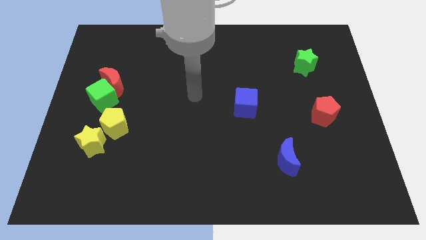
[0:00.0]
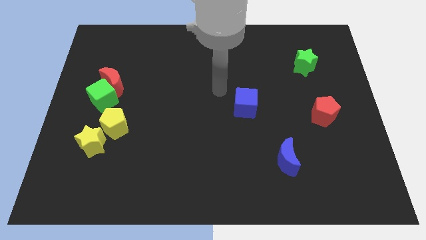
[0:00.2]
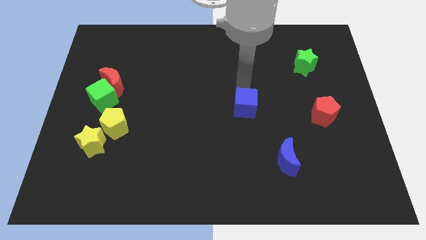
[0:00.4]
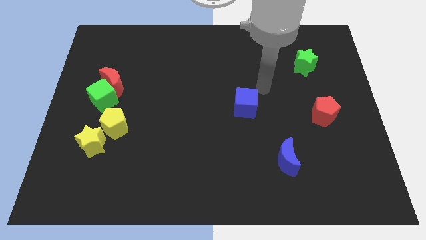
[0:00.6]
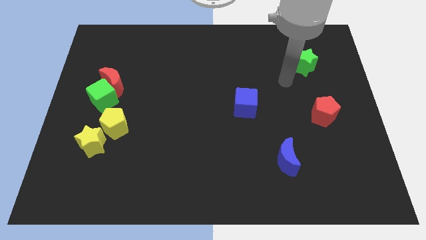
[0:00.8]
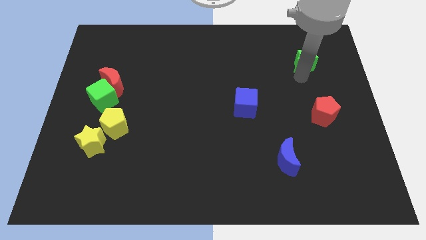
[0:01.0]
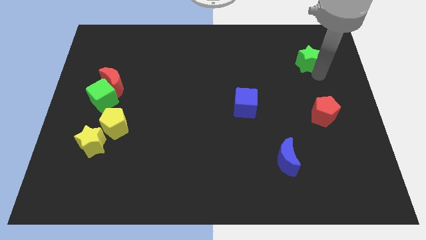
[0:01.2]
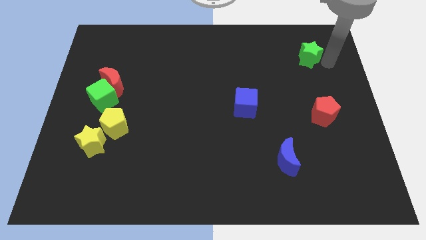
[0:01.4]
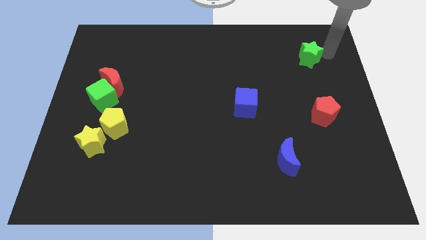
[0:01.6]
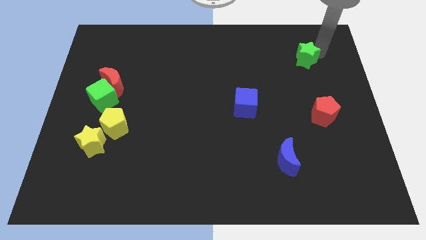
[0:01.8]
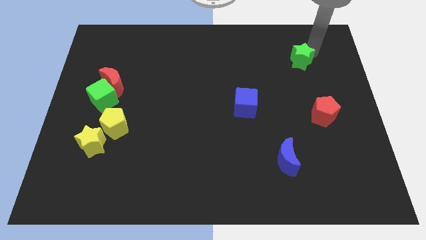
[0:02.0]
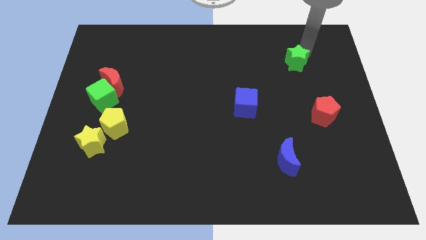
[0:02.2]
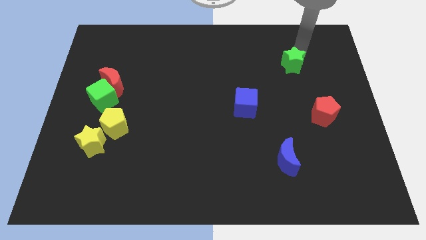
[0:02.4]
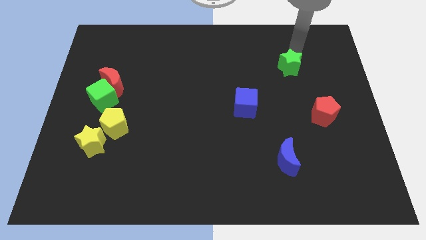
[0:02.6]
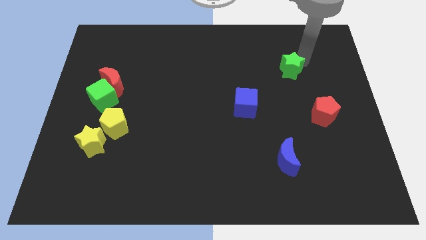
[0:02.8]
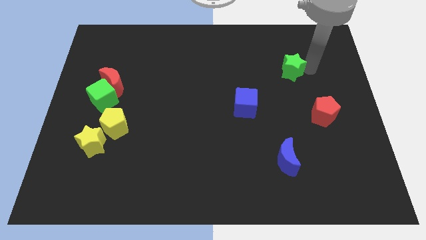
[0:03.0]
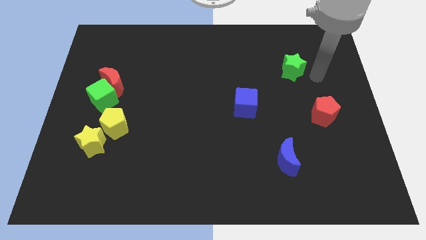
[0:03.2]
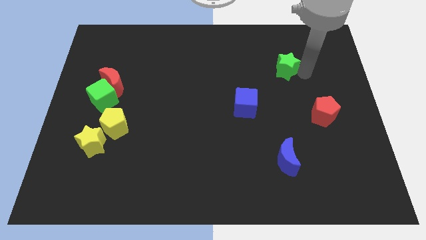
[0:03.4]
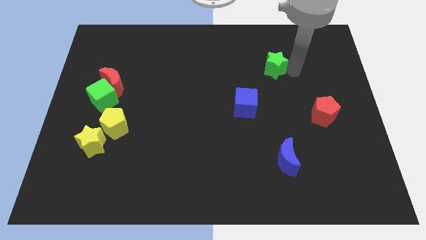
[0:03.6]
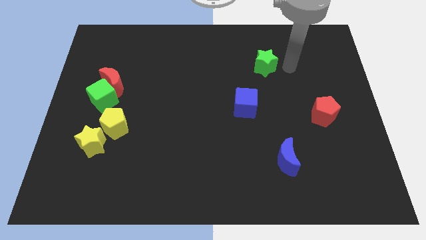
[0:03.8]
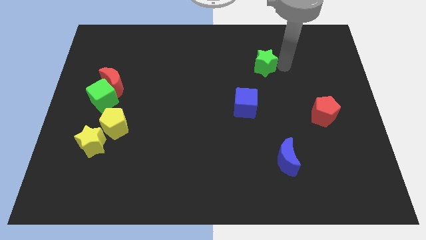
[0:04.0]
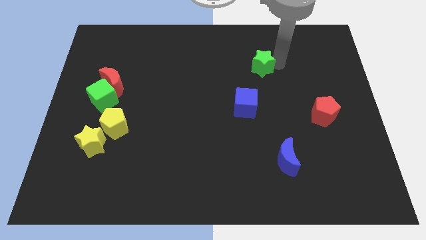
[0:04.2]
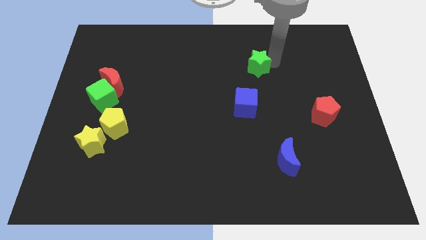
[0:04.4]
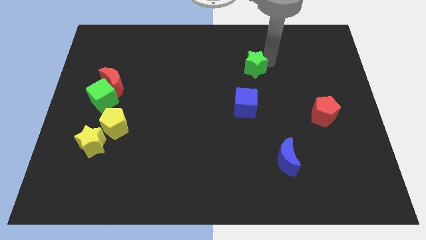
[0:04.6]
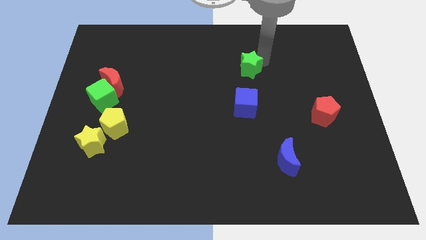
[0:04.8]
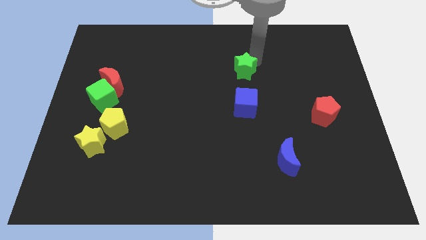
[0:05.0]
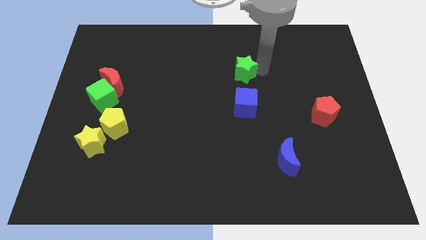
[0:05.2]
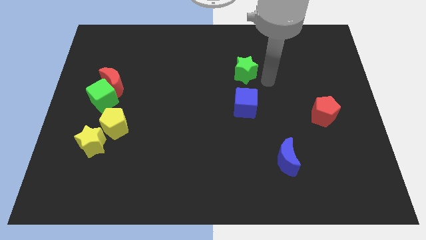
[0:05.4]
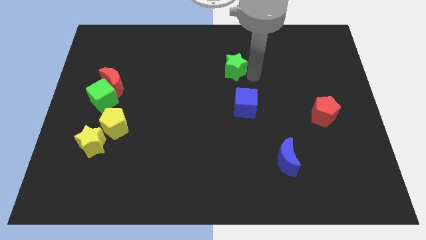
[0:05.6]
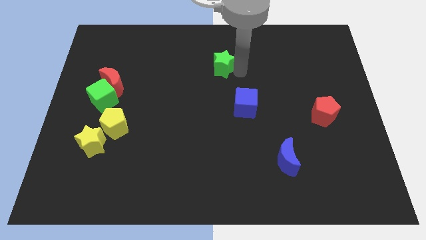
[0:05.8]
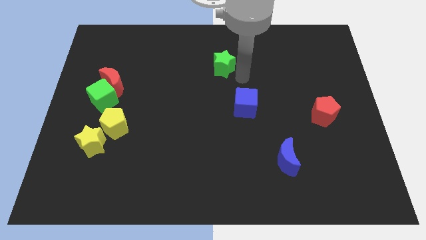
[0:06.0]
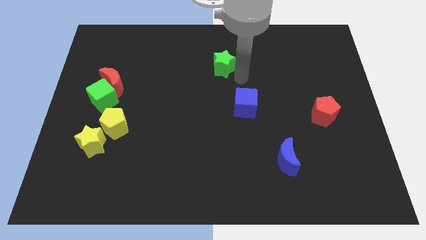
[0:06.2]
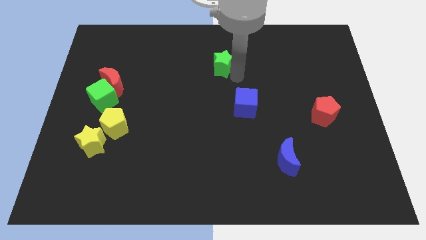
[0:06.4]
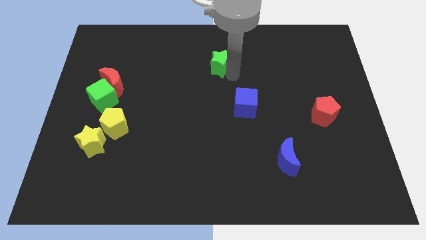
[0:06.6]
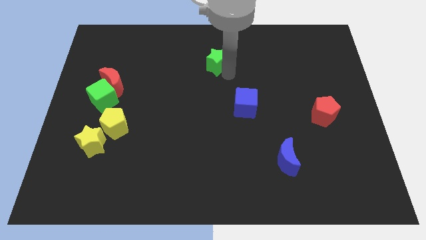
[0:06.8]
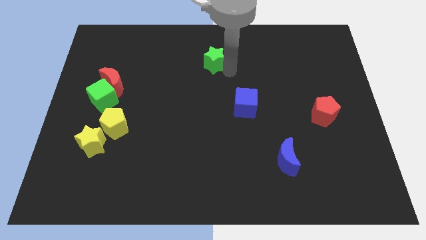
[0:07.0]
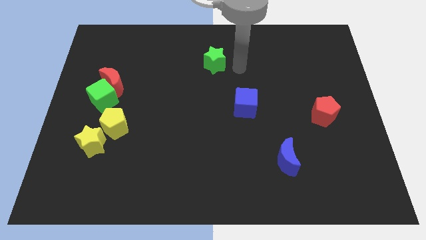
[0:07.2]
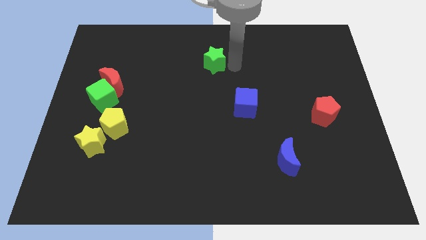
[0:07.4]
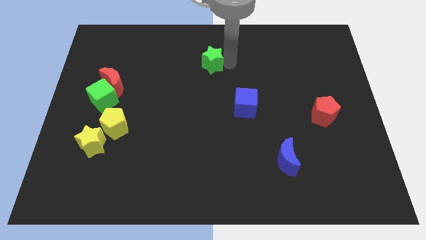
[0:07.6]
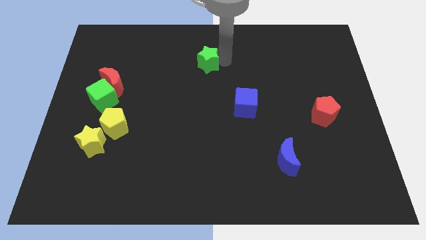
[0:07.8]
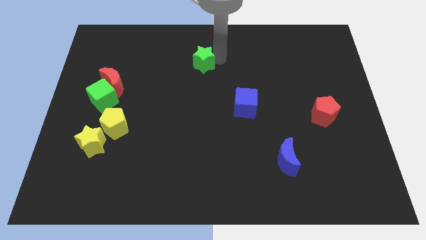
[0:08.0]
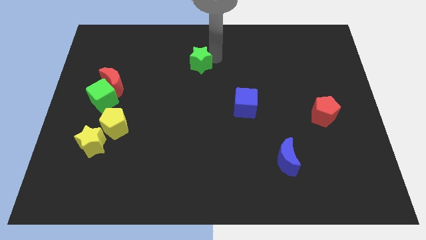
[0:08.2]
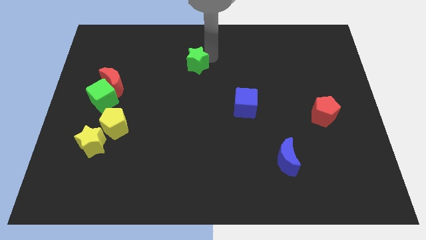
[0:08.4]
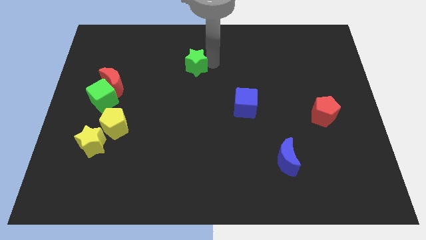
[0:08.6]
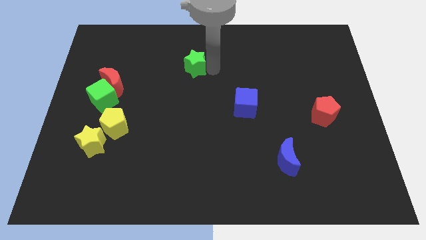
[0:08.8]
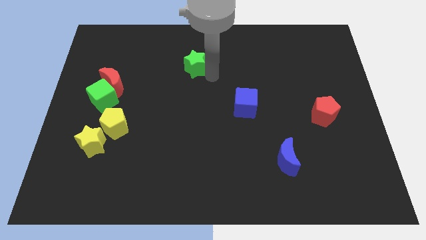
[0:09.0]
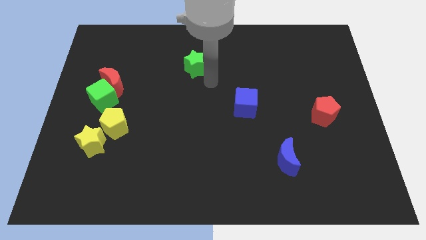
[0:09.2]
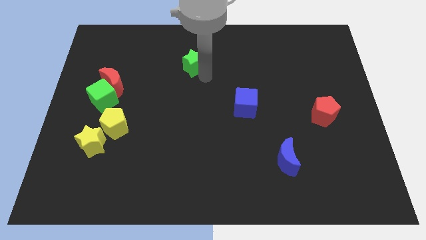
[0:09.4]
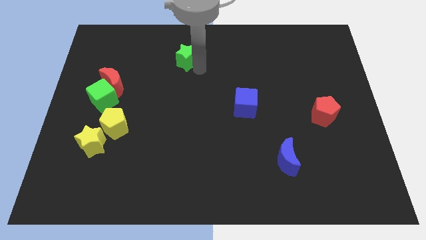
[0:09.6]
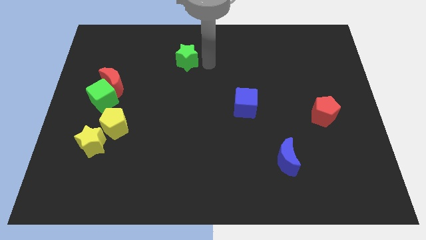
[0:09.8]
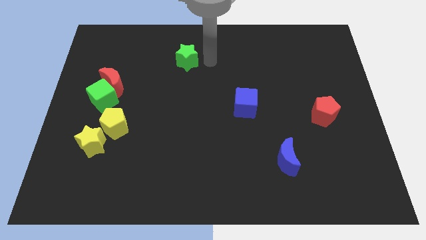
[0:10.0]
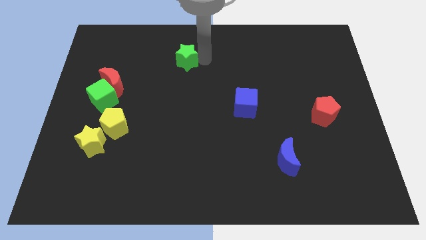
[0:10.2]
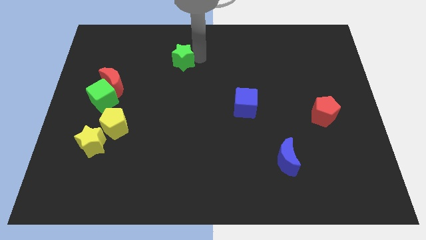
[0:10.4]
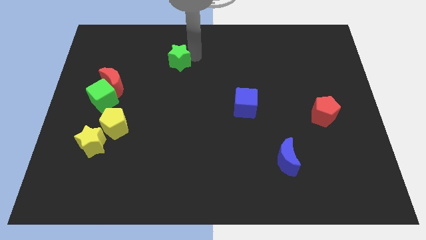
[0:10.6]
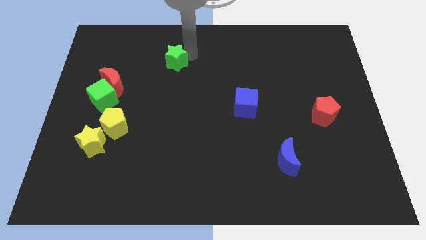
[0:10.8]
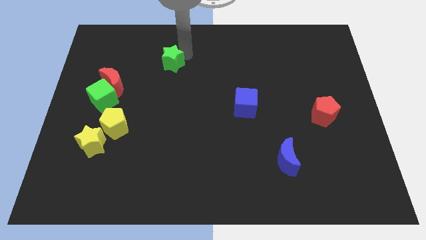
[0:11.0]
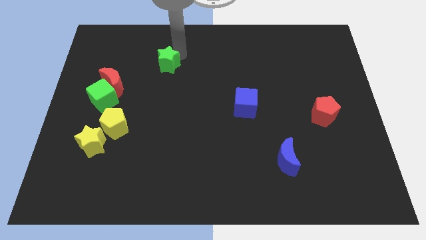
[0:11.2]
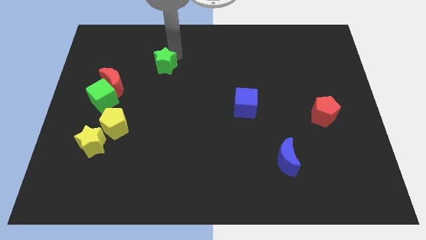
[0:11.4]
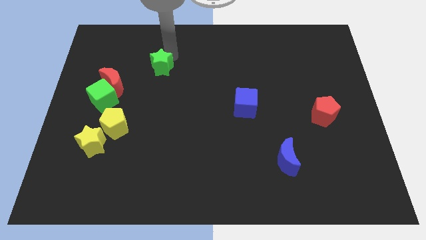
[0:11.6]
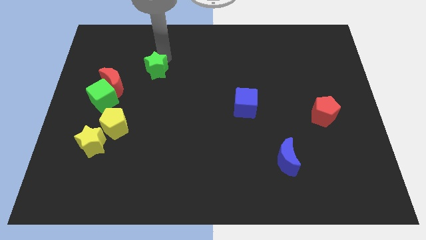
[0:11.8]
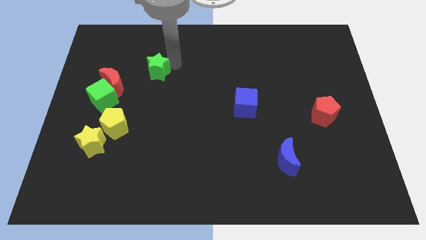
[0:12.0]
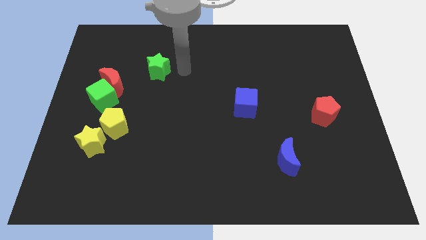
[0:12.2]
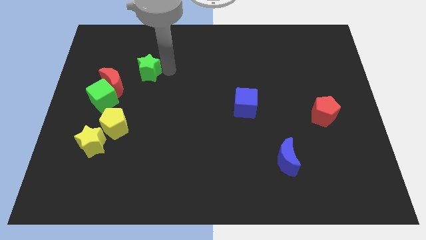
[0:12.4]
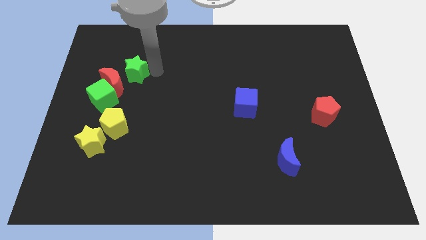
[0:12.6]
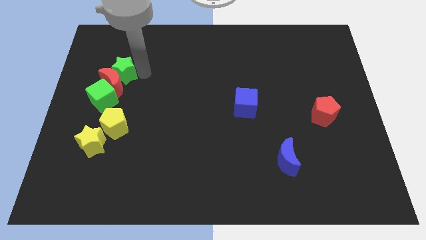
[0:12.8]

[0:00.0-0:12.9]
slide the green star to the top of the green cube

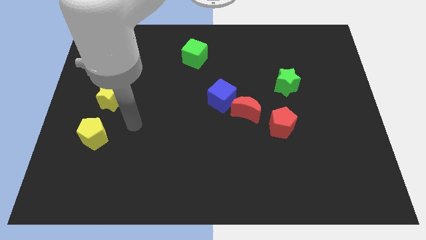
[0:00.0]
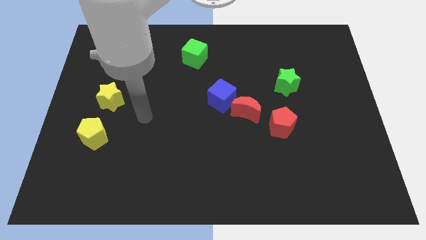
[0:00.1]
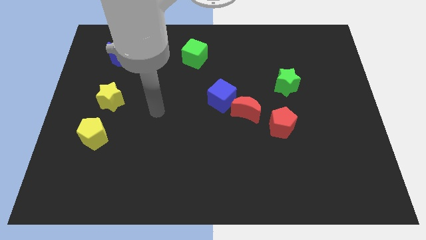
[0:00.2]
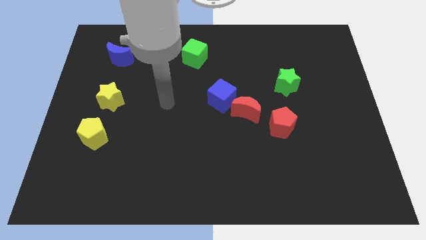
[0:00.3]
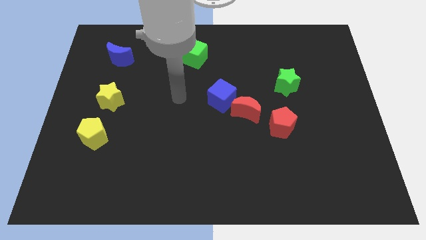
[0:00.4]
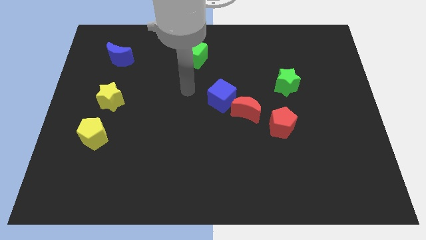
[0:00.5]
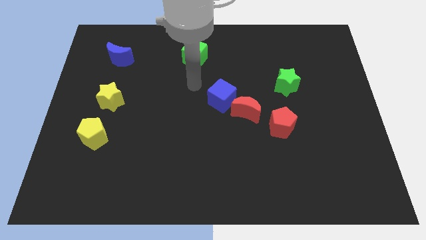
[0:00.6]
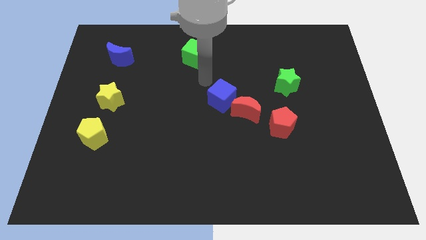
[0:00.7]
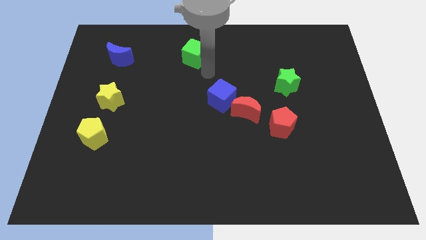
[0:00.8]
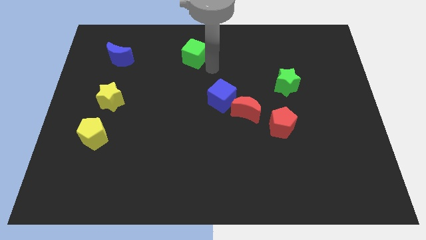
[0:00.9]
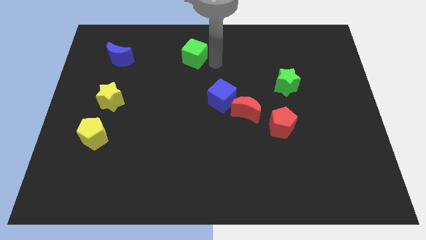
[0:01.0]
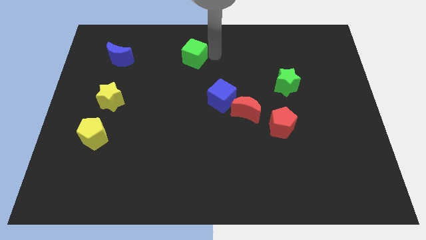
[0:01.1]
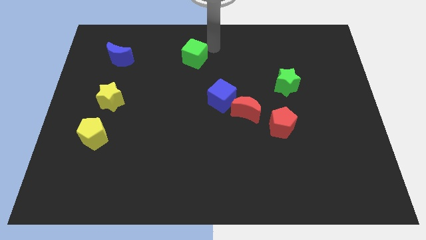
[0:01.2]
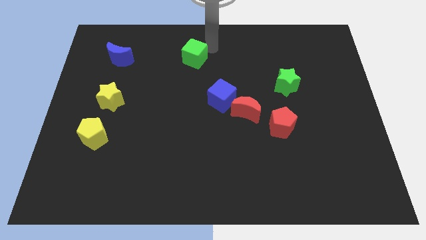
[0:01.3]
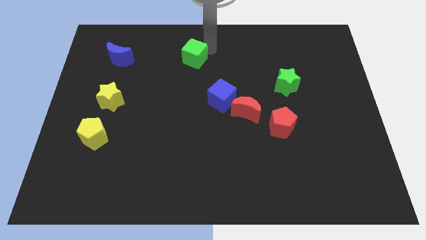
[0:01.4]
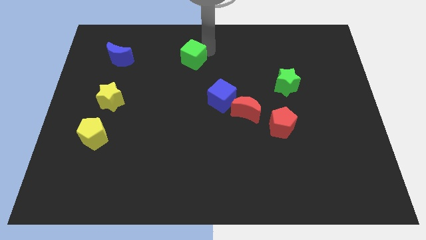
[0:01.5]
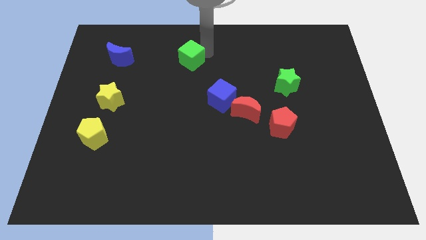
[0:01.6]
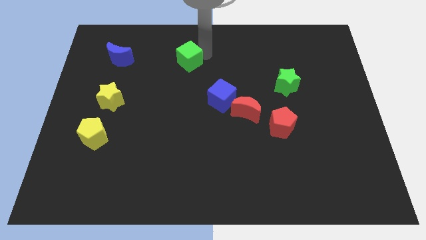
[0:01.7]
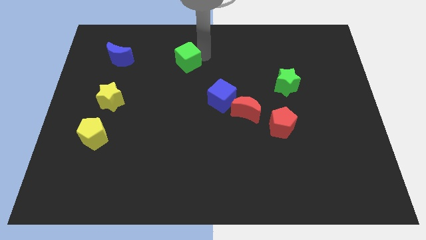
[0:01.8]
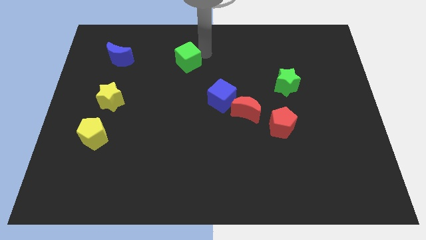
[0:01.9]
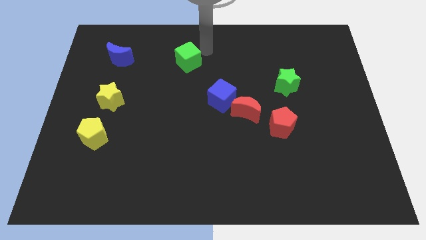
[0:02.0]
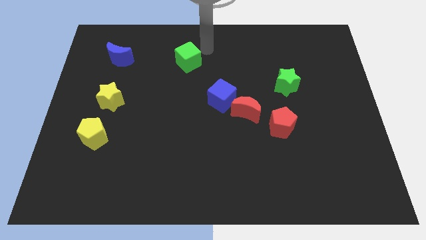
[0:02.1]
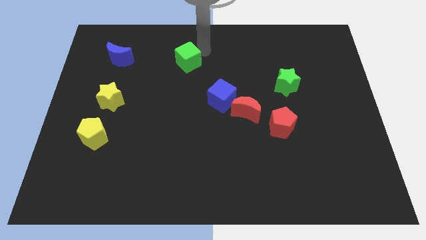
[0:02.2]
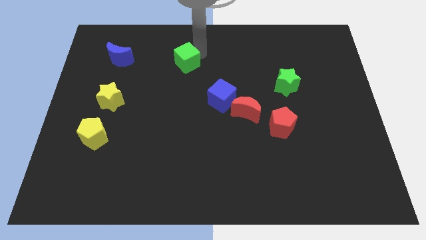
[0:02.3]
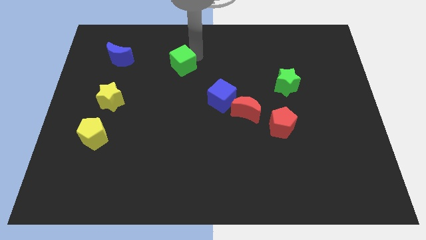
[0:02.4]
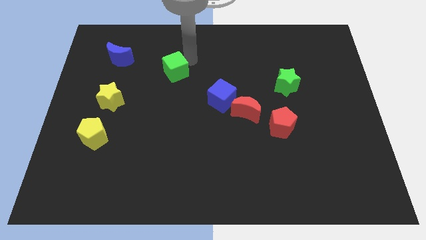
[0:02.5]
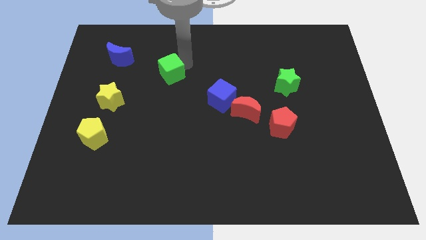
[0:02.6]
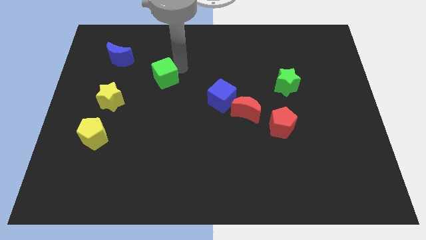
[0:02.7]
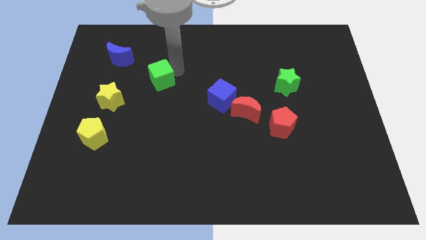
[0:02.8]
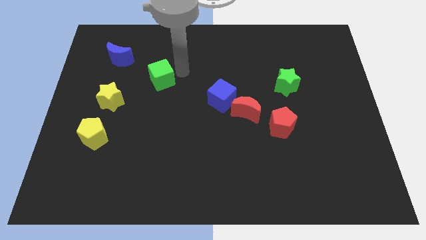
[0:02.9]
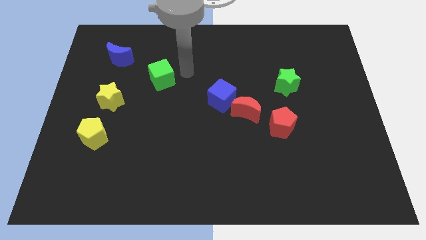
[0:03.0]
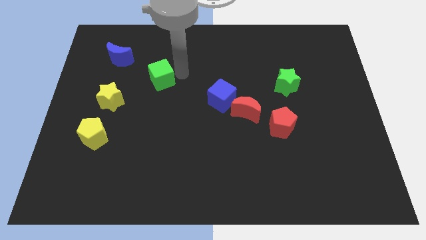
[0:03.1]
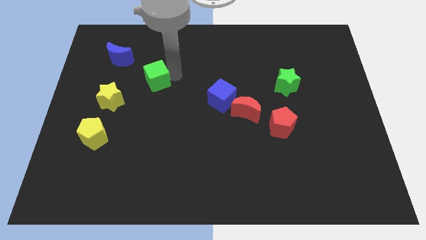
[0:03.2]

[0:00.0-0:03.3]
put the green cube to the top right of the yellow star
